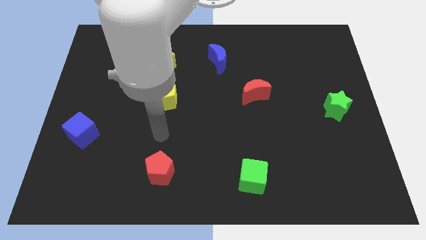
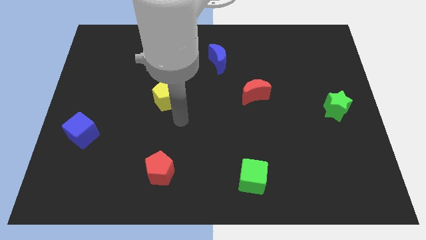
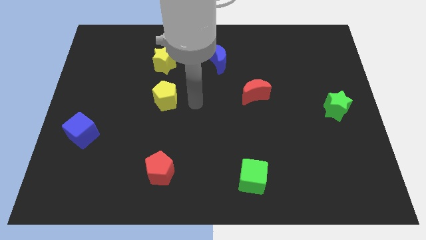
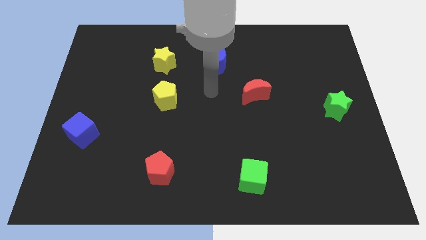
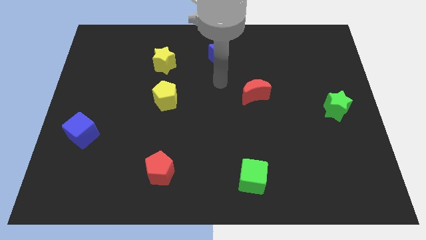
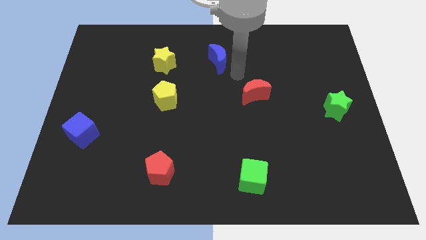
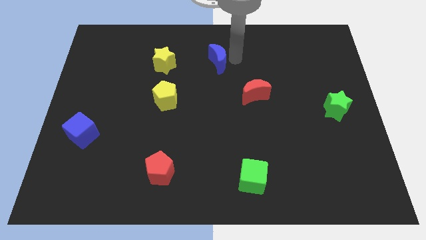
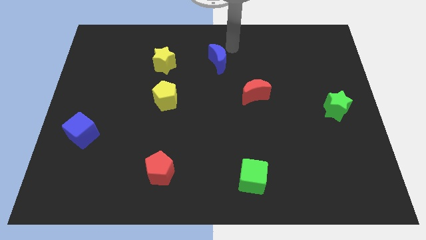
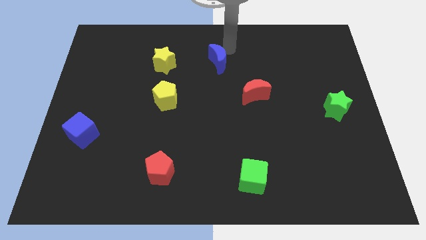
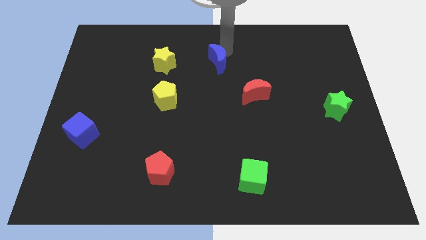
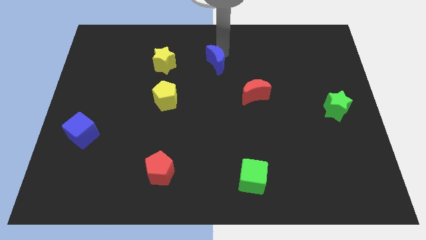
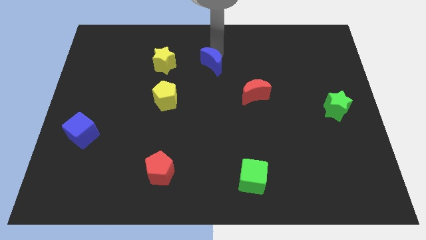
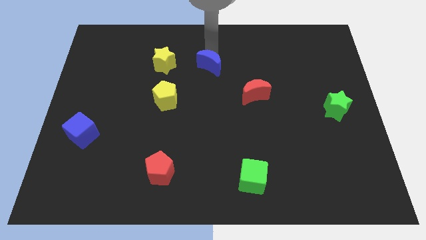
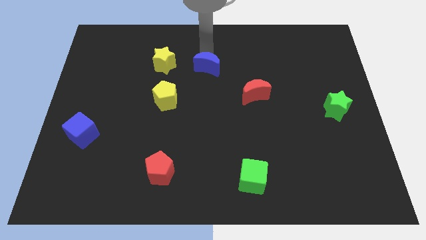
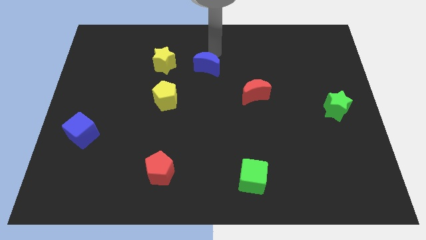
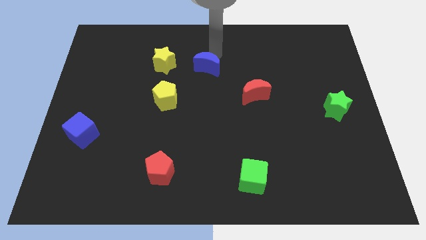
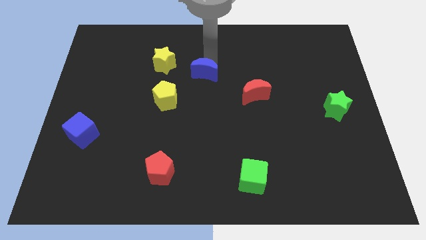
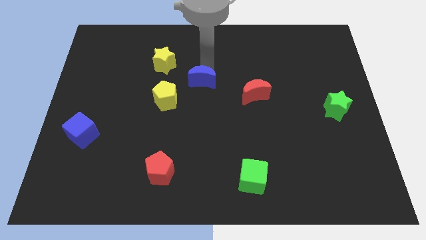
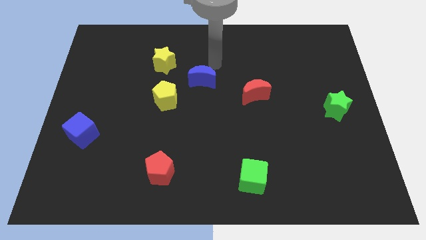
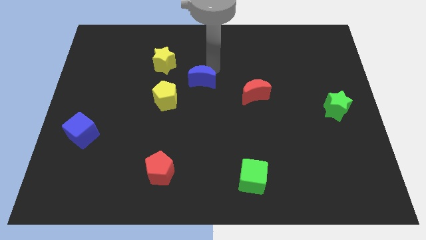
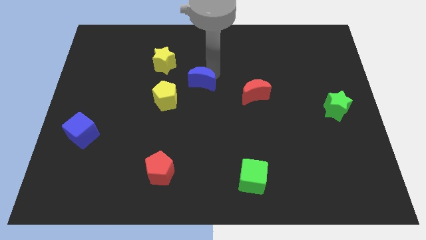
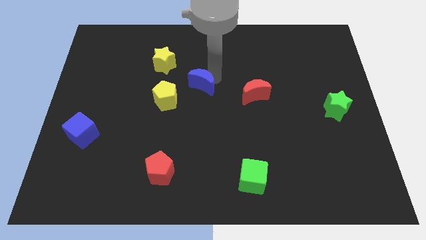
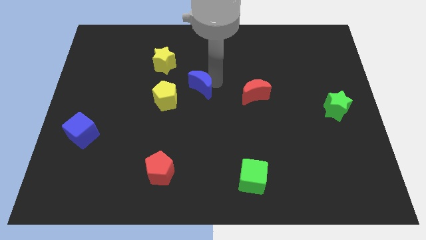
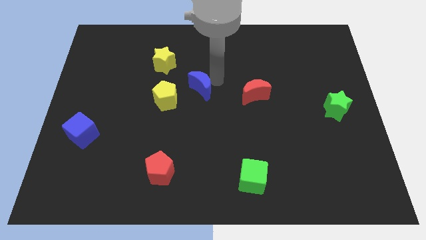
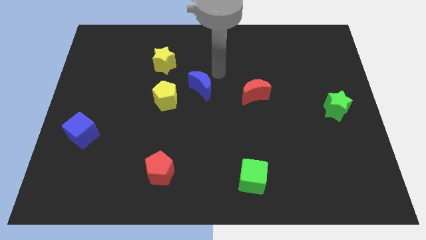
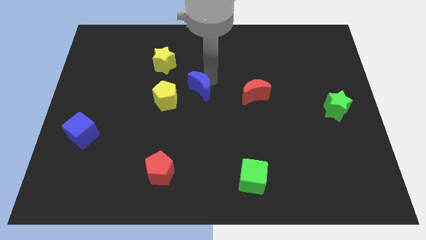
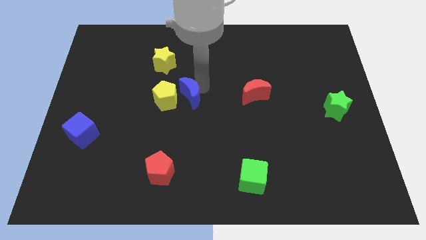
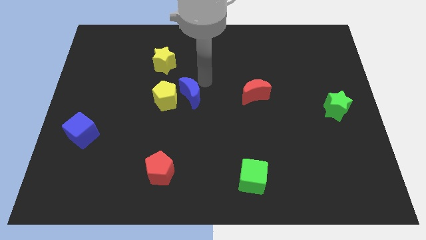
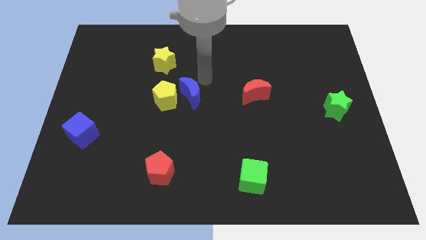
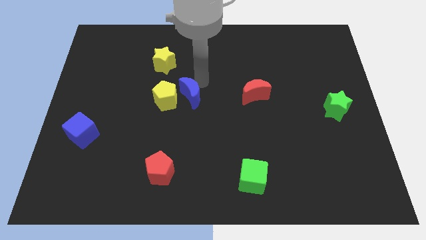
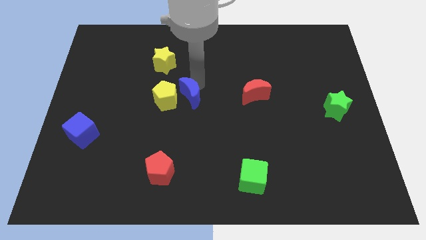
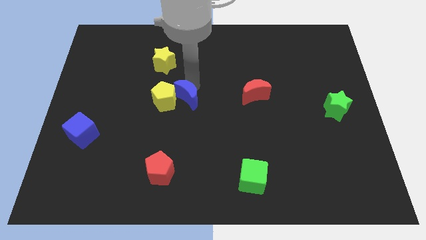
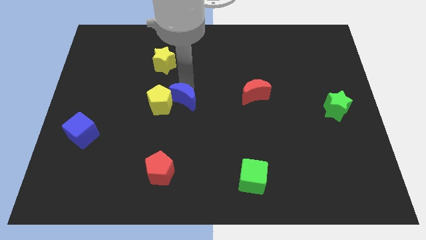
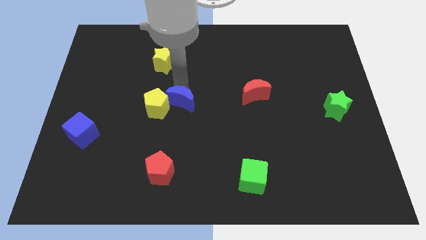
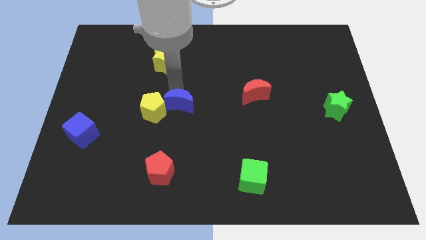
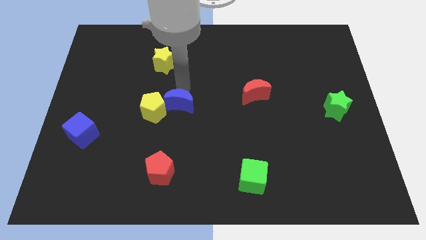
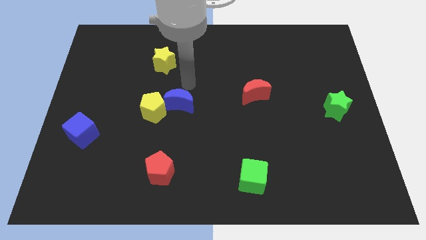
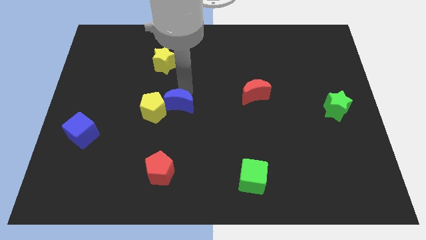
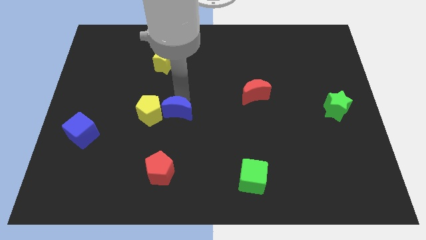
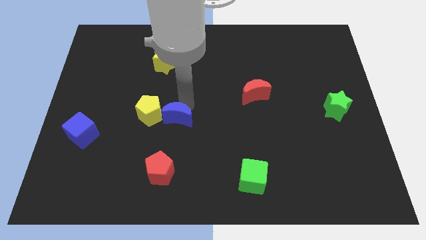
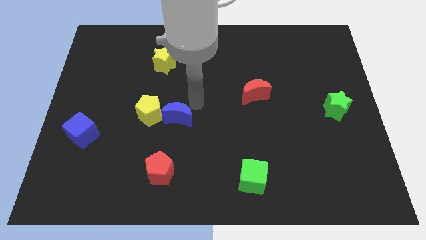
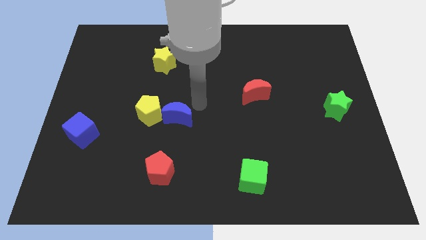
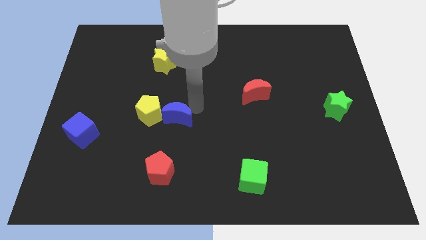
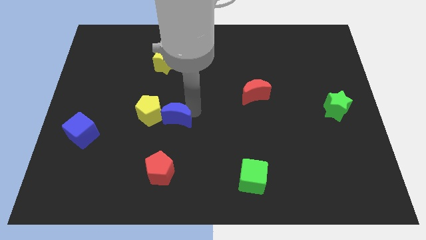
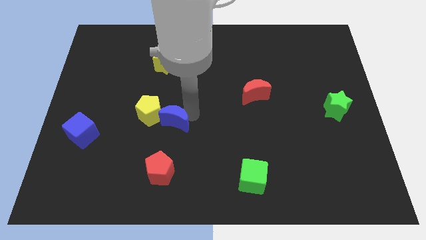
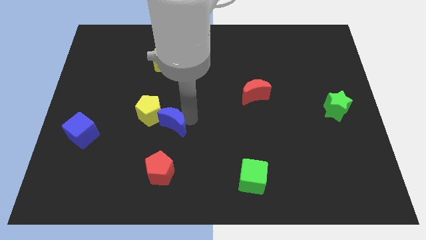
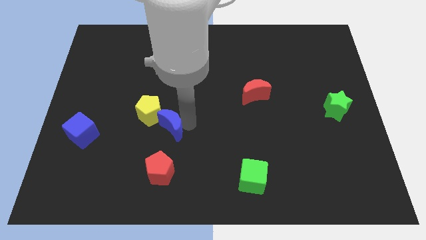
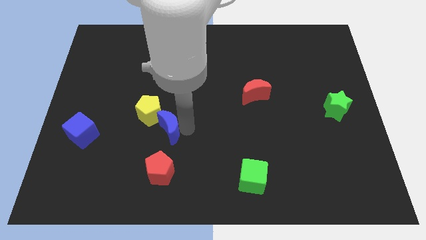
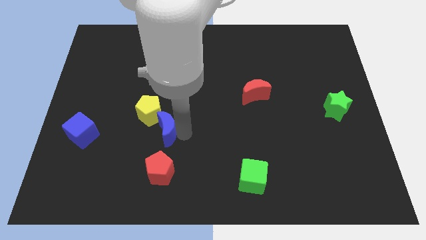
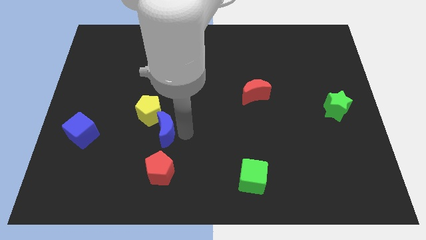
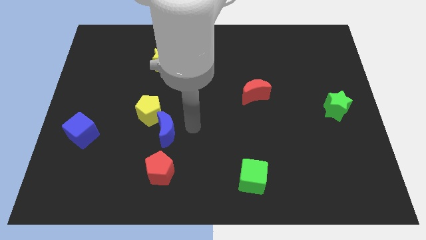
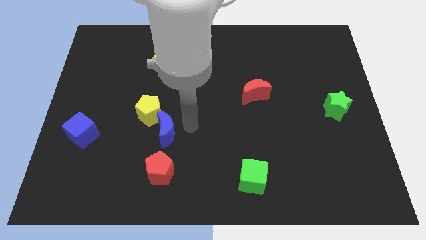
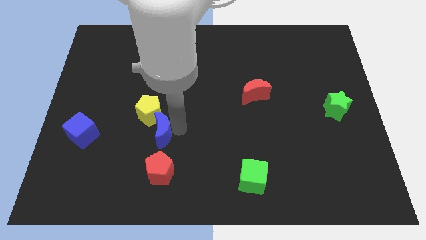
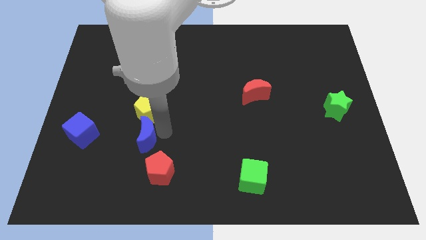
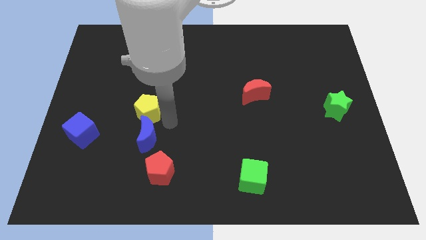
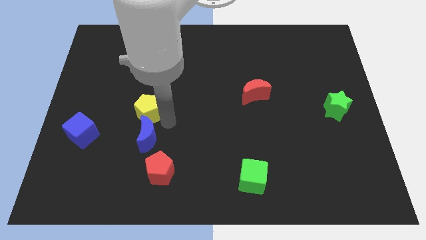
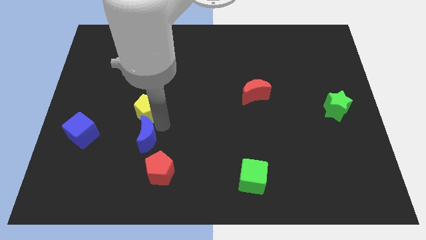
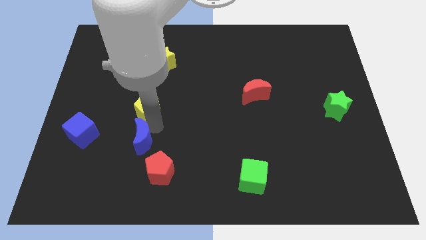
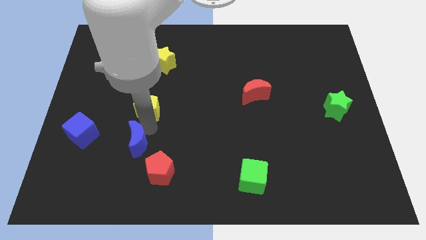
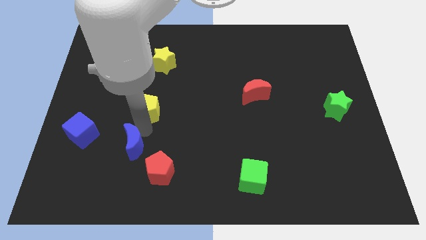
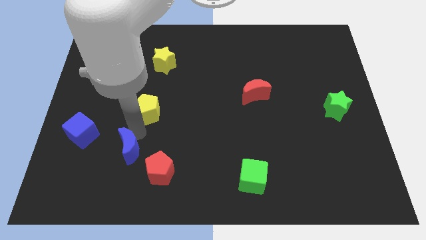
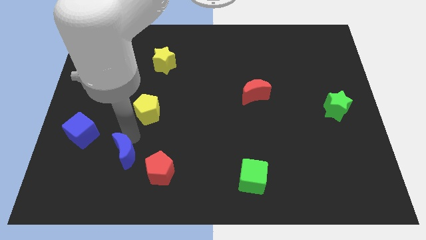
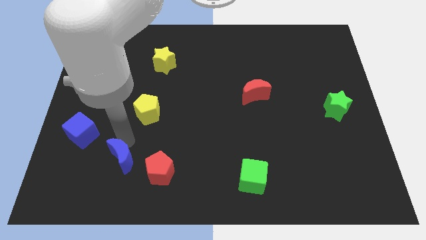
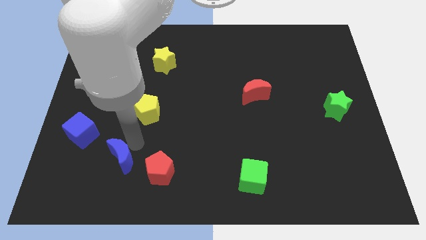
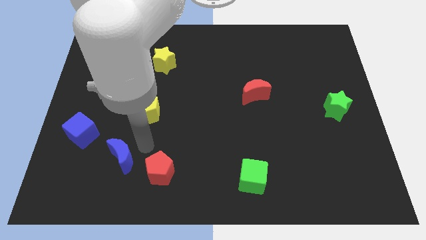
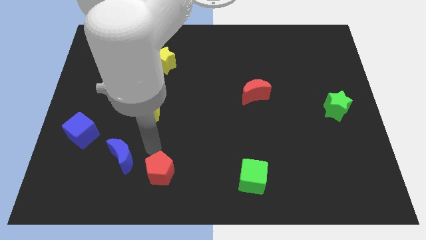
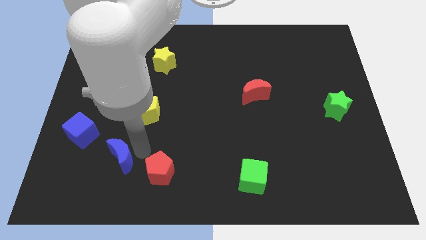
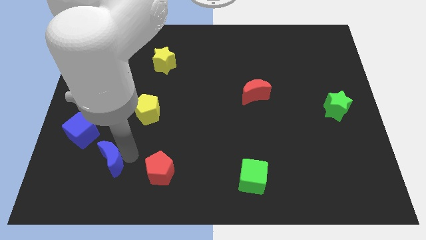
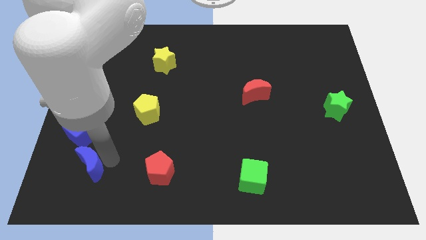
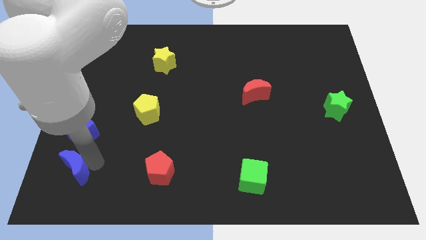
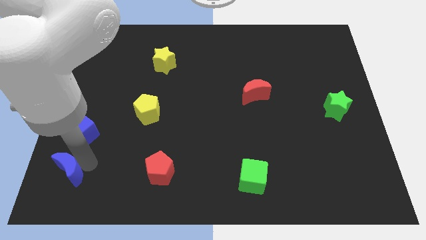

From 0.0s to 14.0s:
move the blue moon to the bottom left corner
